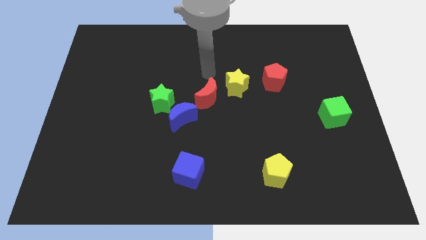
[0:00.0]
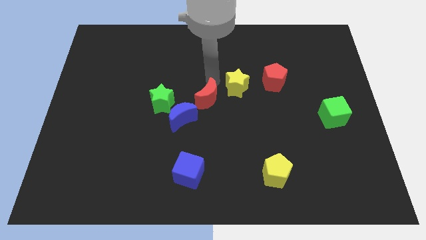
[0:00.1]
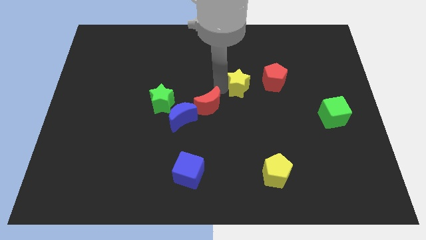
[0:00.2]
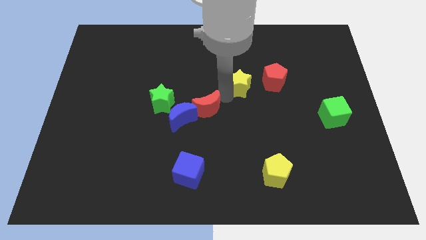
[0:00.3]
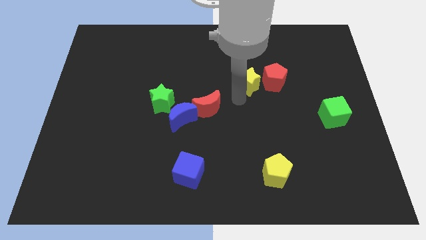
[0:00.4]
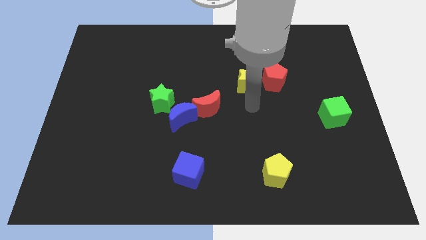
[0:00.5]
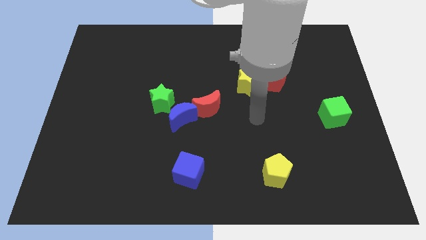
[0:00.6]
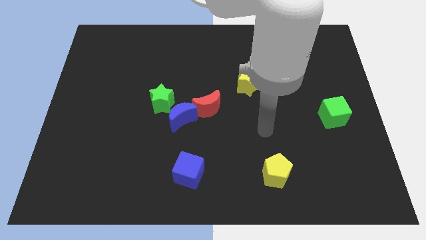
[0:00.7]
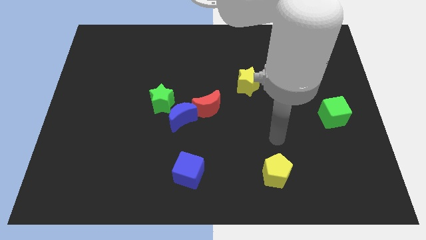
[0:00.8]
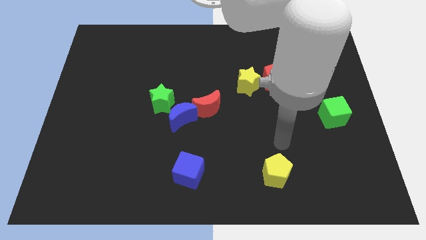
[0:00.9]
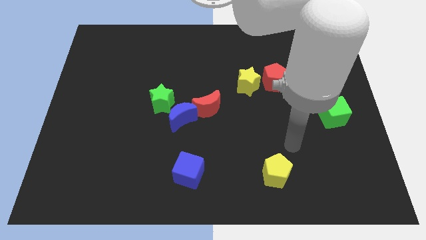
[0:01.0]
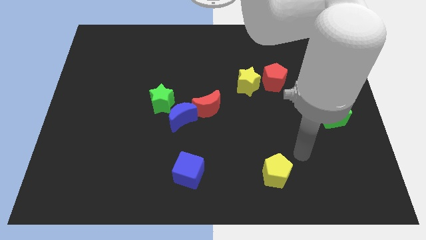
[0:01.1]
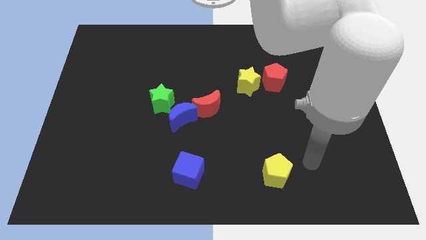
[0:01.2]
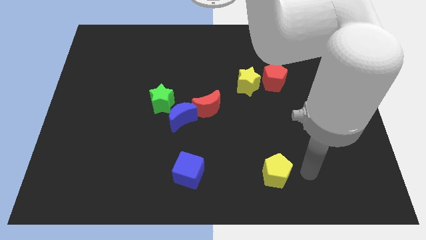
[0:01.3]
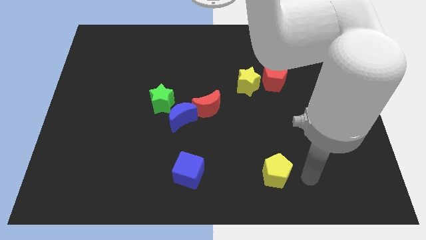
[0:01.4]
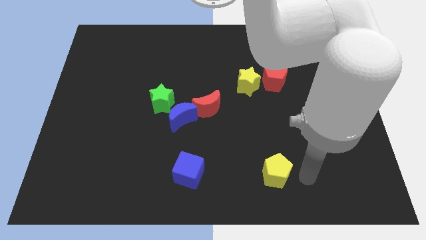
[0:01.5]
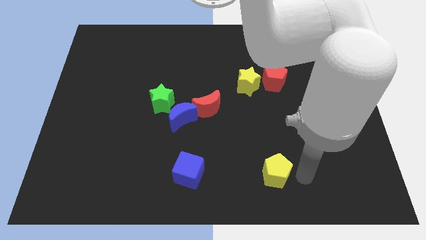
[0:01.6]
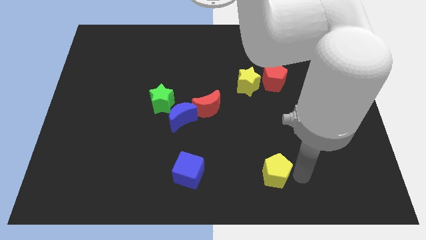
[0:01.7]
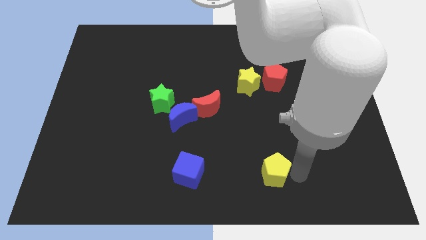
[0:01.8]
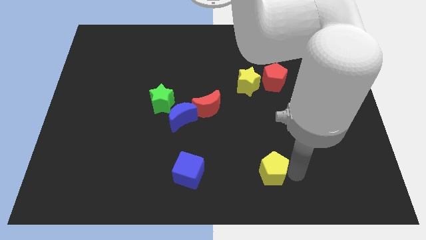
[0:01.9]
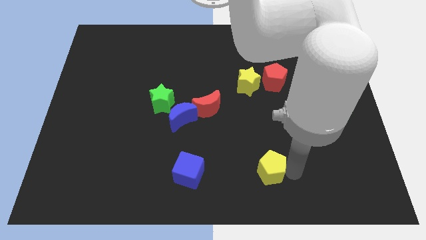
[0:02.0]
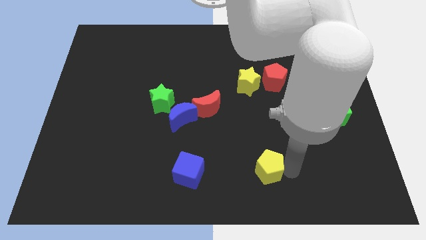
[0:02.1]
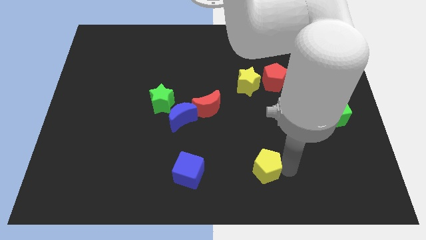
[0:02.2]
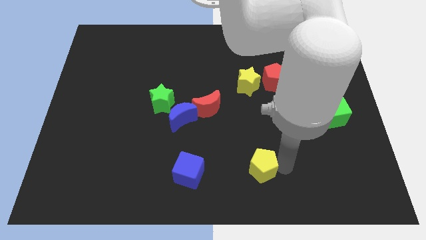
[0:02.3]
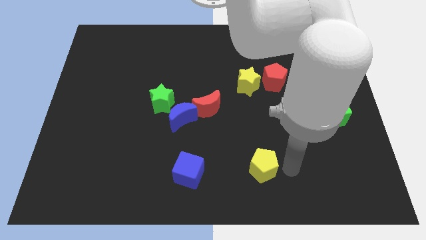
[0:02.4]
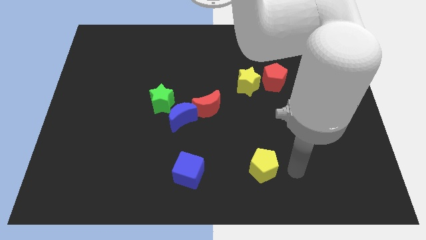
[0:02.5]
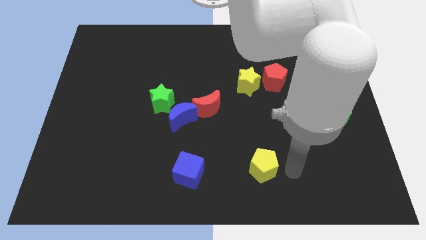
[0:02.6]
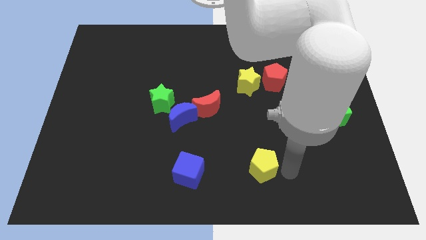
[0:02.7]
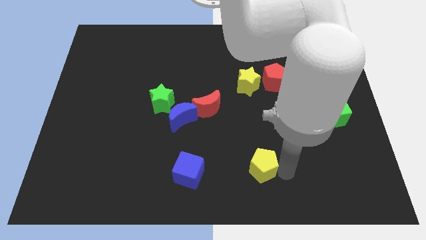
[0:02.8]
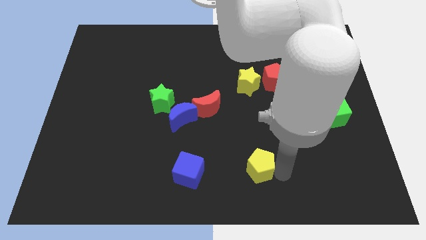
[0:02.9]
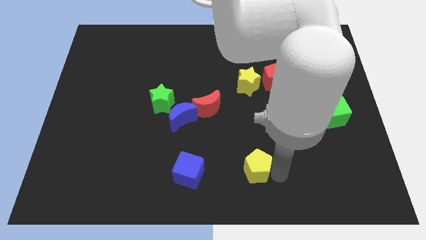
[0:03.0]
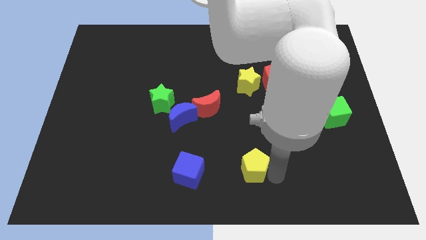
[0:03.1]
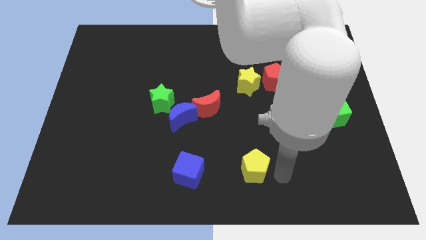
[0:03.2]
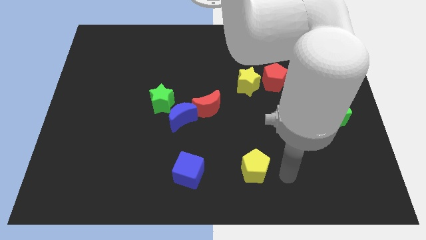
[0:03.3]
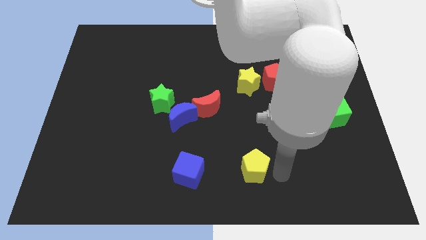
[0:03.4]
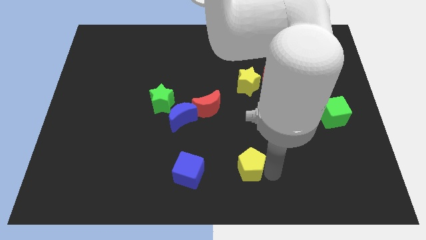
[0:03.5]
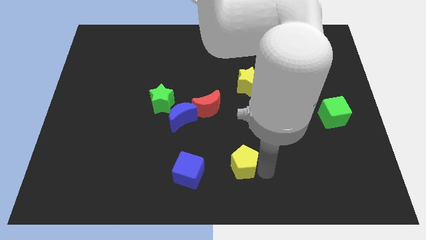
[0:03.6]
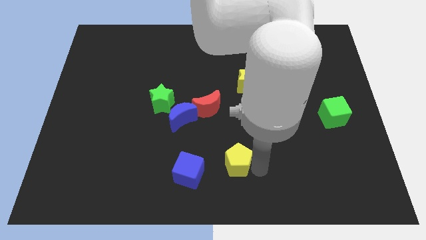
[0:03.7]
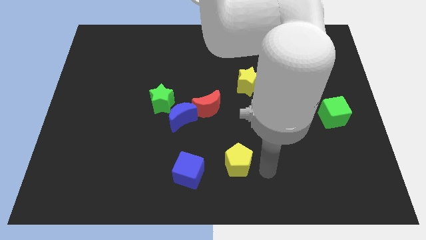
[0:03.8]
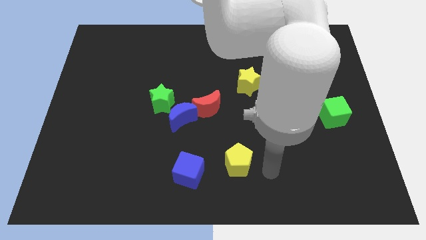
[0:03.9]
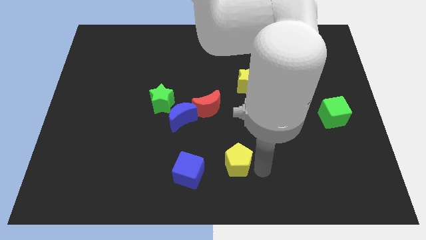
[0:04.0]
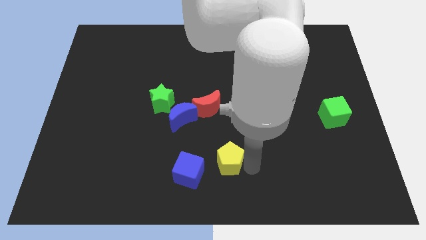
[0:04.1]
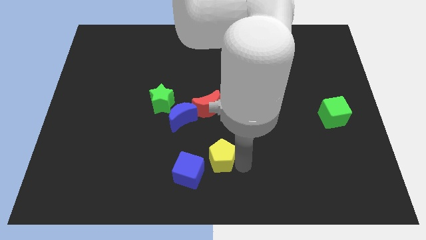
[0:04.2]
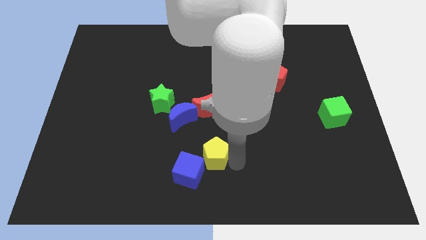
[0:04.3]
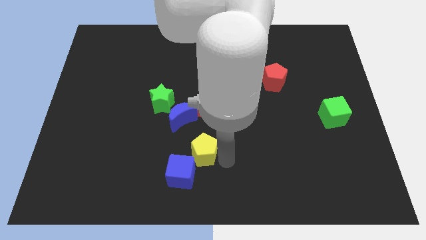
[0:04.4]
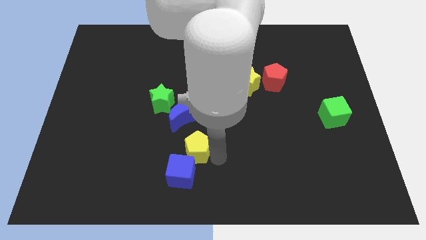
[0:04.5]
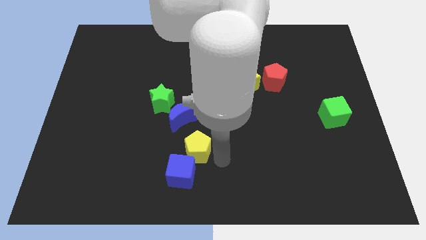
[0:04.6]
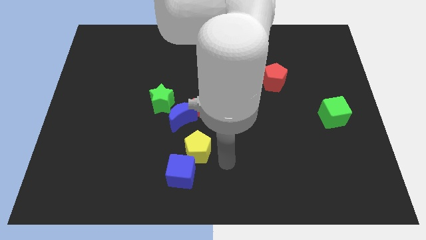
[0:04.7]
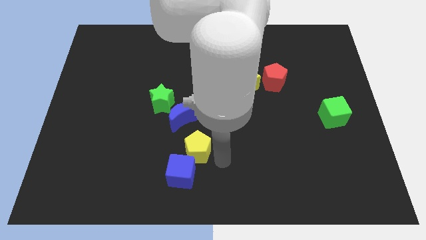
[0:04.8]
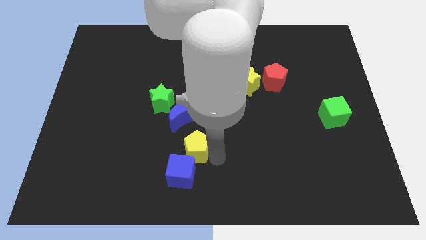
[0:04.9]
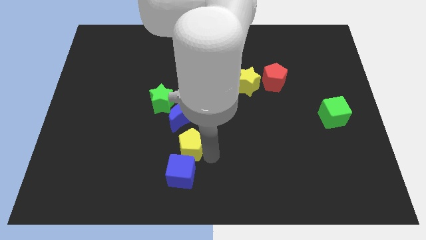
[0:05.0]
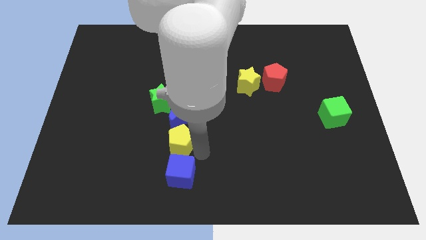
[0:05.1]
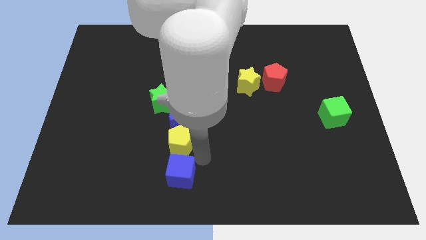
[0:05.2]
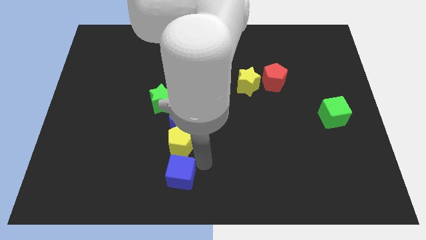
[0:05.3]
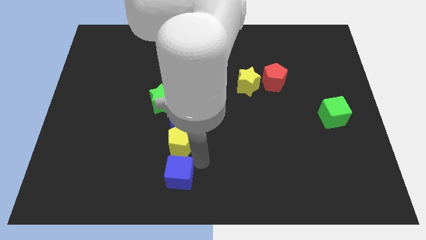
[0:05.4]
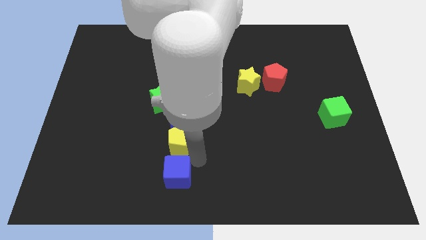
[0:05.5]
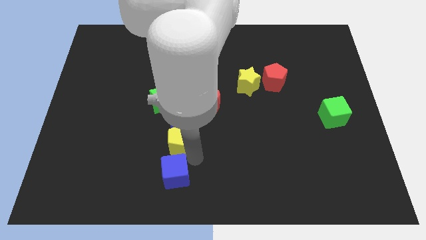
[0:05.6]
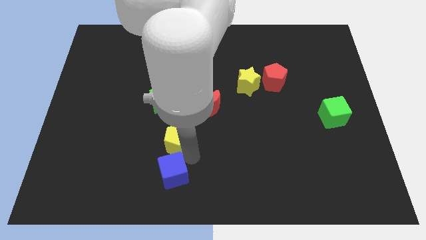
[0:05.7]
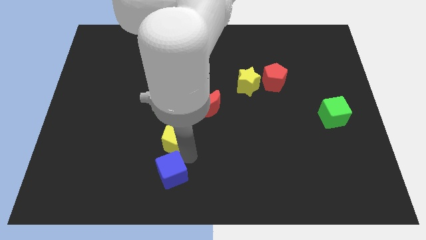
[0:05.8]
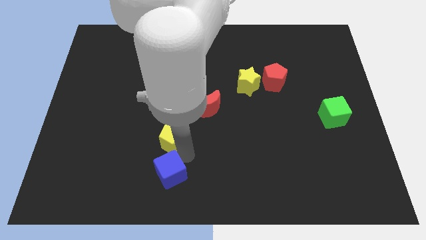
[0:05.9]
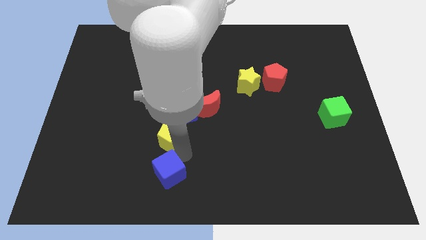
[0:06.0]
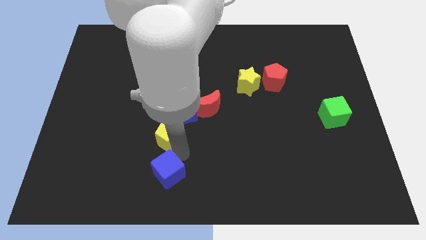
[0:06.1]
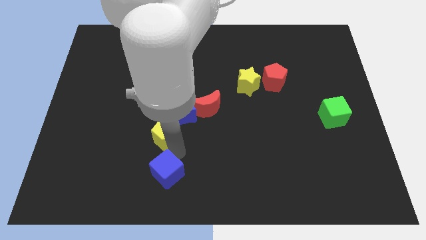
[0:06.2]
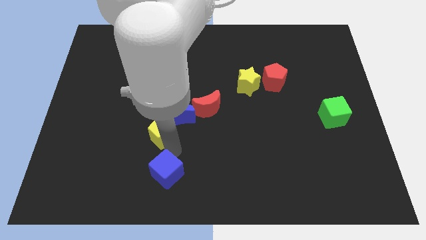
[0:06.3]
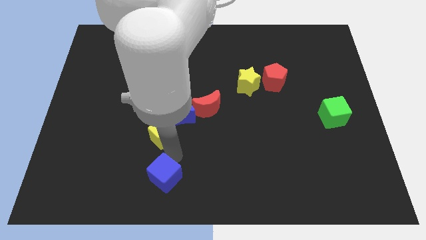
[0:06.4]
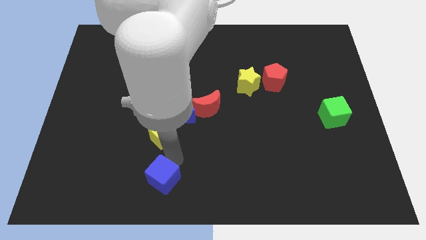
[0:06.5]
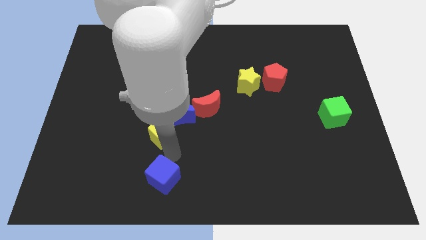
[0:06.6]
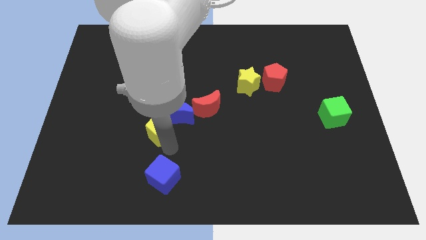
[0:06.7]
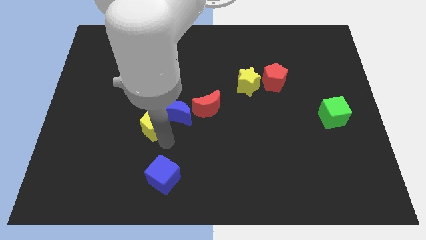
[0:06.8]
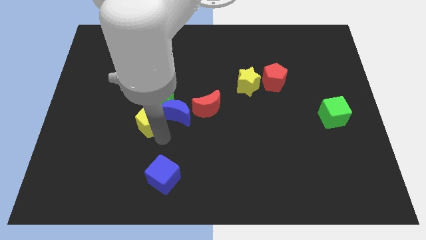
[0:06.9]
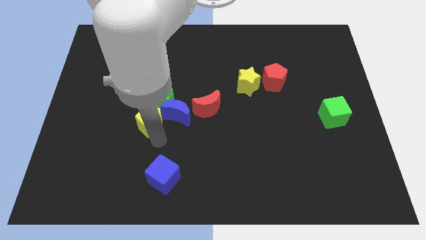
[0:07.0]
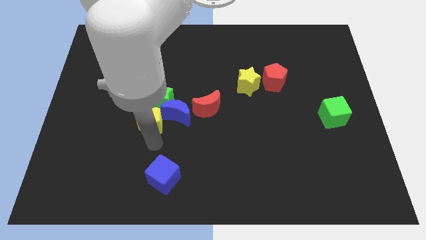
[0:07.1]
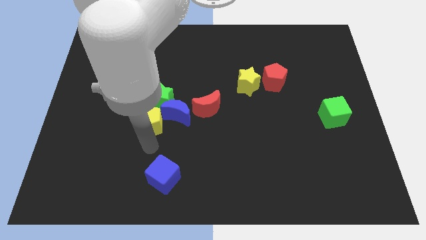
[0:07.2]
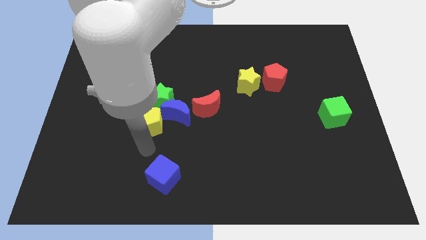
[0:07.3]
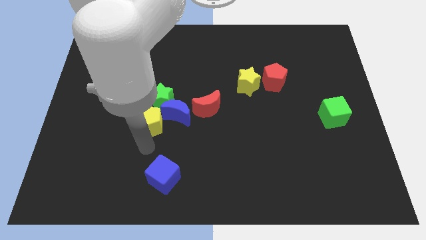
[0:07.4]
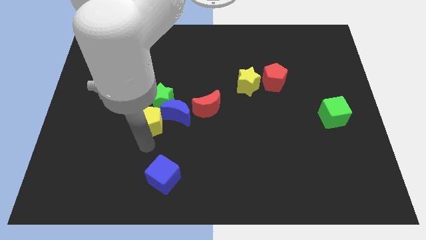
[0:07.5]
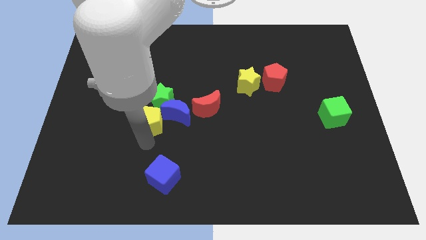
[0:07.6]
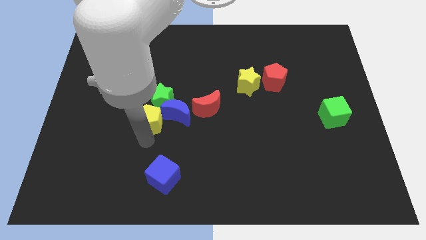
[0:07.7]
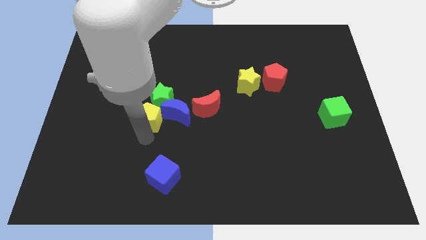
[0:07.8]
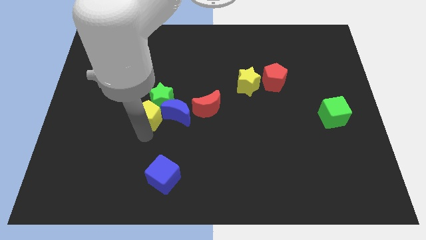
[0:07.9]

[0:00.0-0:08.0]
push the yellow pentagon to the green star
